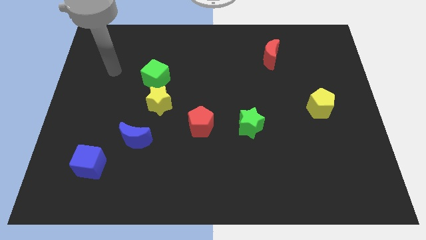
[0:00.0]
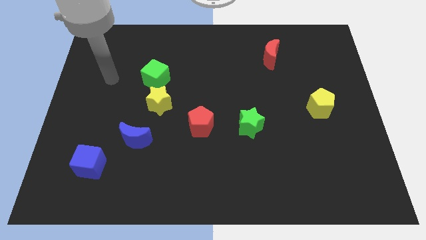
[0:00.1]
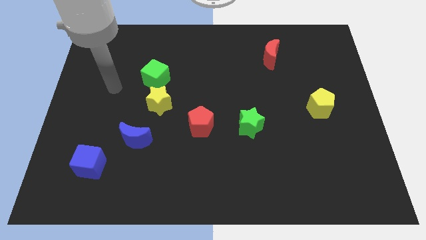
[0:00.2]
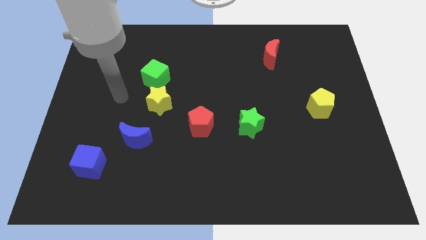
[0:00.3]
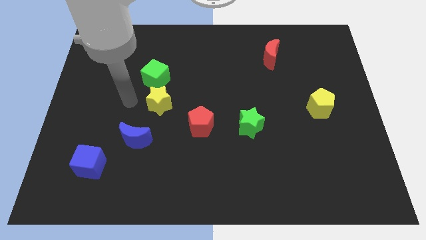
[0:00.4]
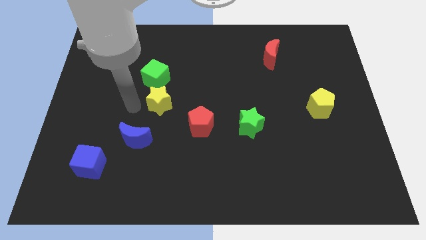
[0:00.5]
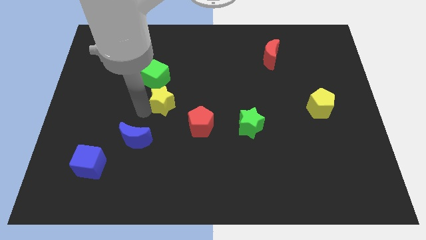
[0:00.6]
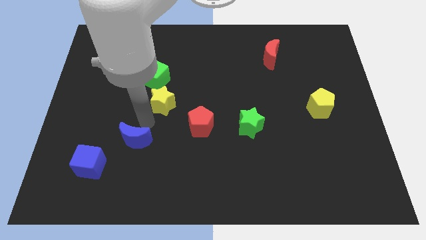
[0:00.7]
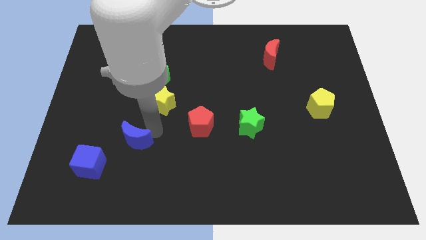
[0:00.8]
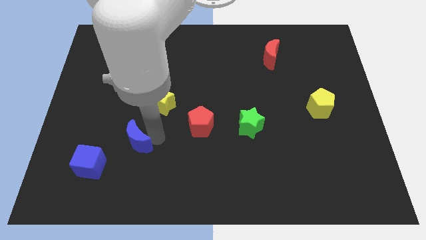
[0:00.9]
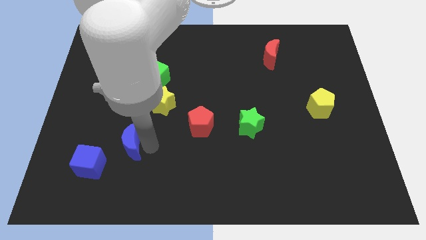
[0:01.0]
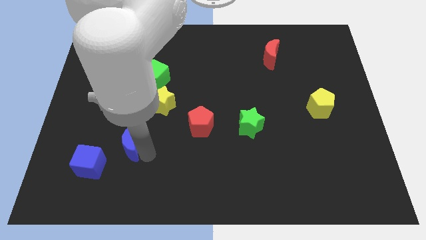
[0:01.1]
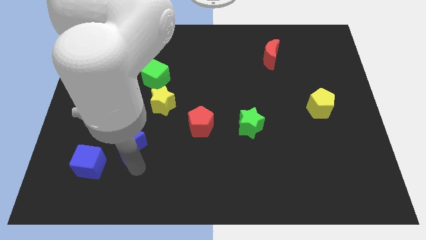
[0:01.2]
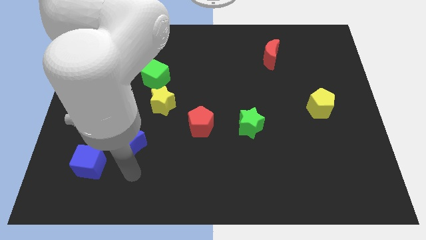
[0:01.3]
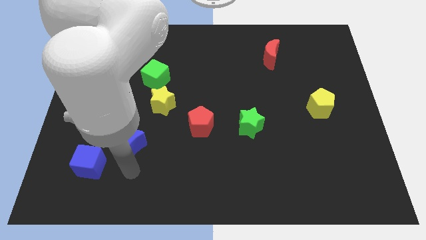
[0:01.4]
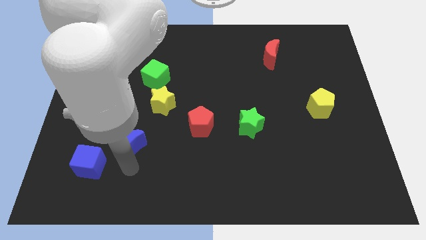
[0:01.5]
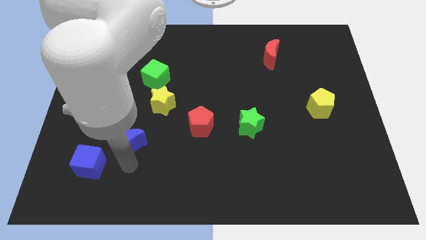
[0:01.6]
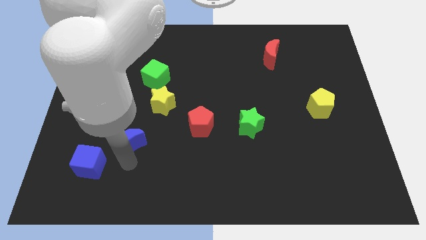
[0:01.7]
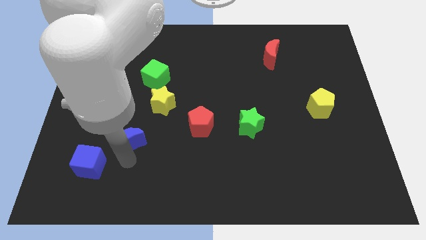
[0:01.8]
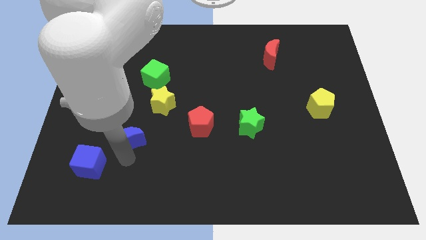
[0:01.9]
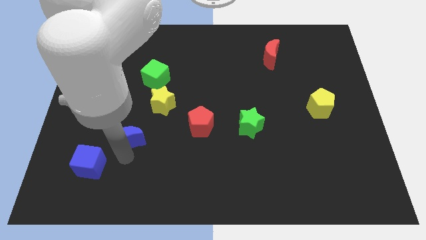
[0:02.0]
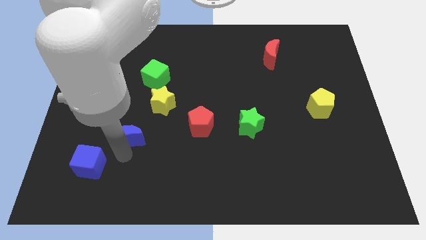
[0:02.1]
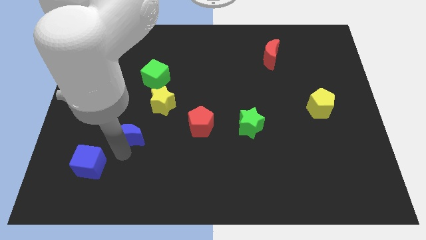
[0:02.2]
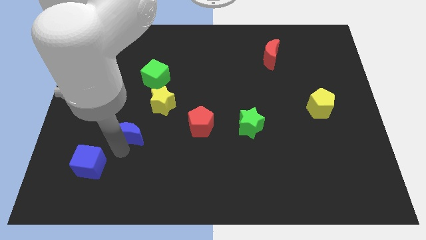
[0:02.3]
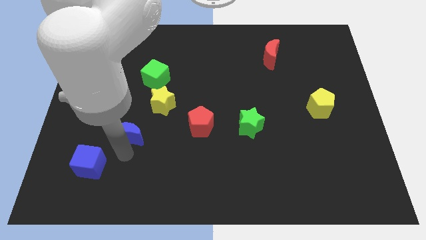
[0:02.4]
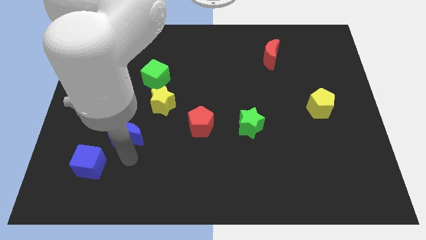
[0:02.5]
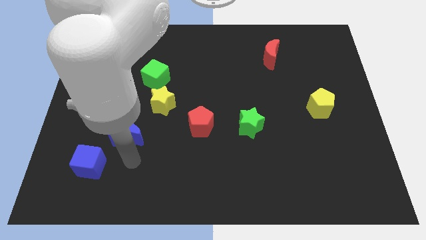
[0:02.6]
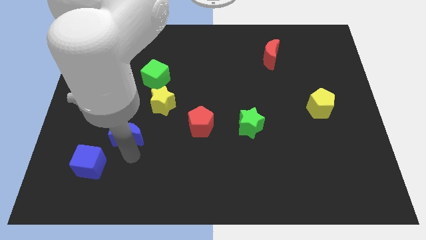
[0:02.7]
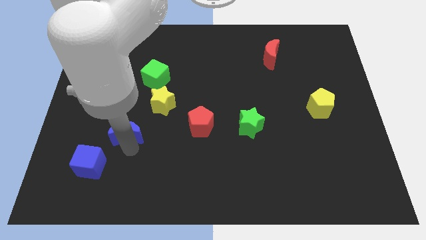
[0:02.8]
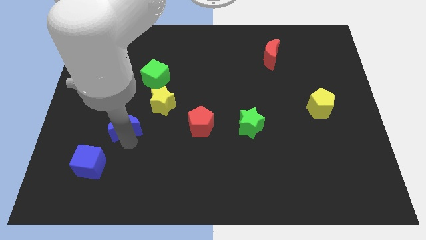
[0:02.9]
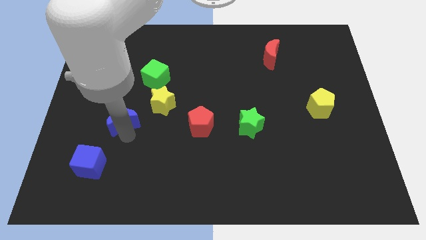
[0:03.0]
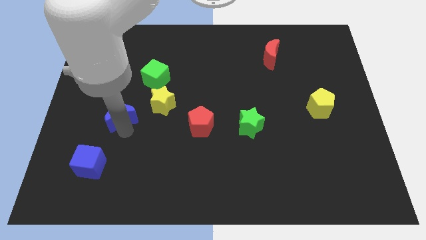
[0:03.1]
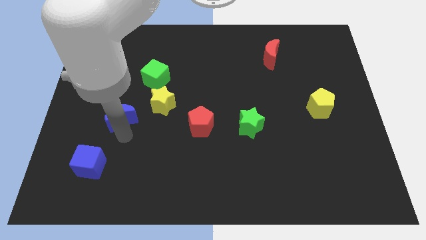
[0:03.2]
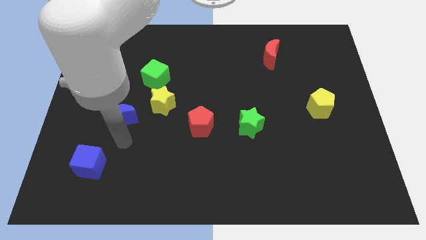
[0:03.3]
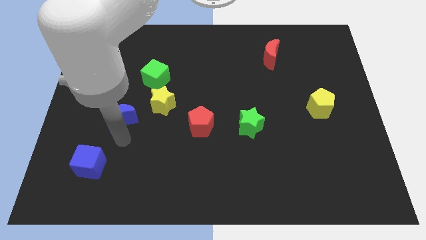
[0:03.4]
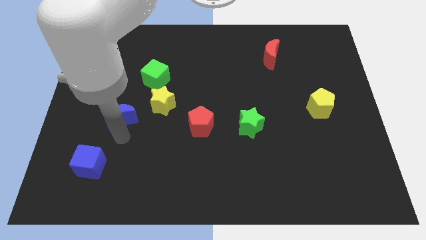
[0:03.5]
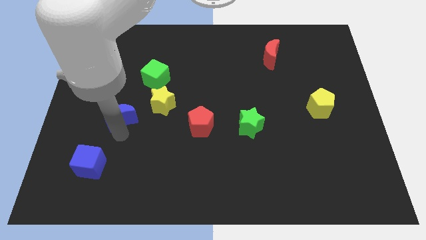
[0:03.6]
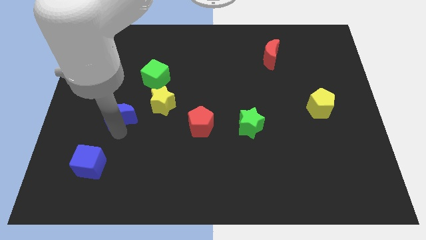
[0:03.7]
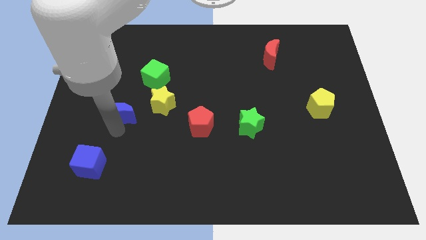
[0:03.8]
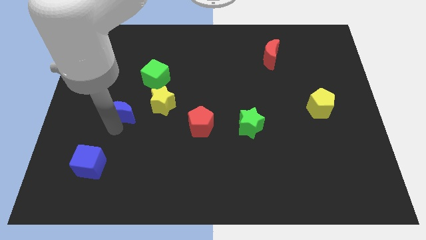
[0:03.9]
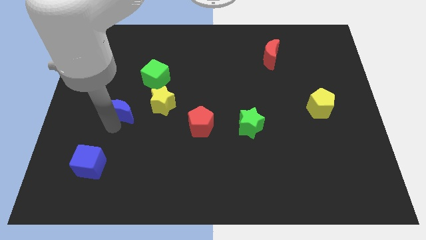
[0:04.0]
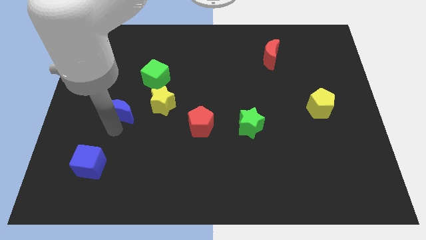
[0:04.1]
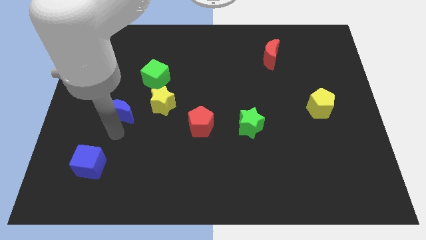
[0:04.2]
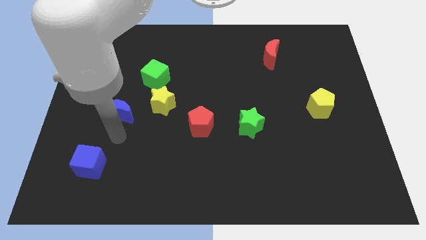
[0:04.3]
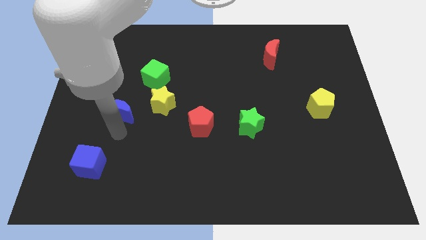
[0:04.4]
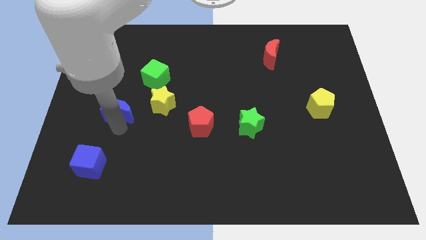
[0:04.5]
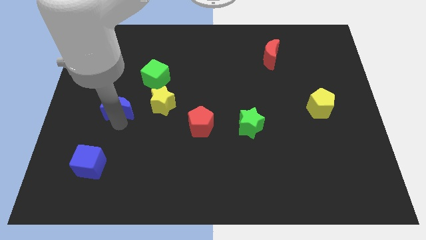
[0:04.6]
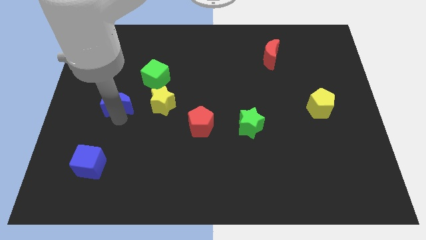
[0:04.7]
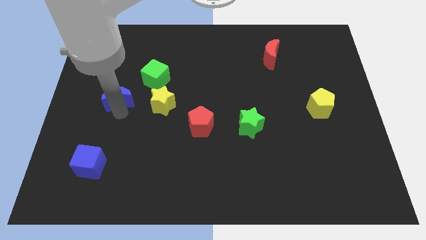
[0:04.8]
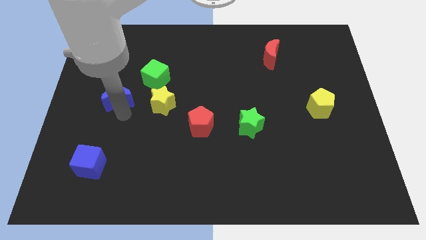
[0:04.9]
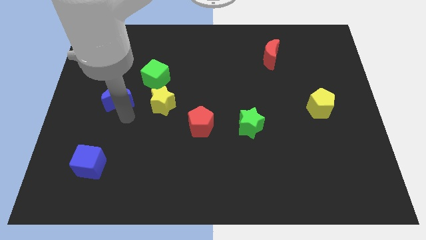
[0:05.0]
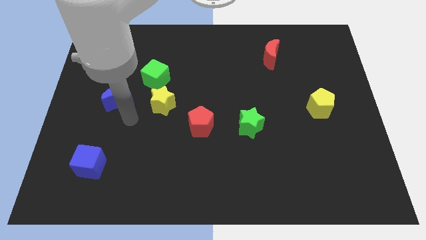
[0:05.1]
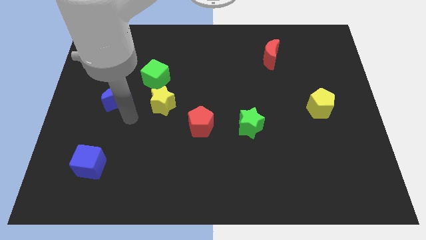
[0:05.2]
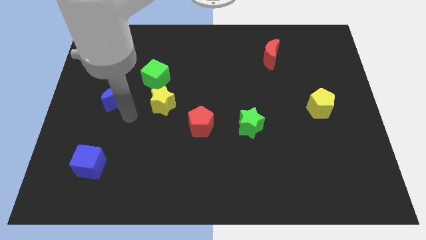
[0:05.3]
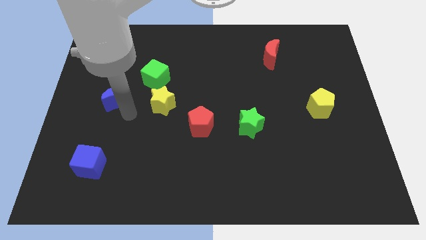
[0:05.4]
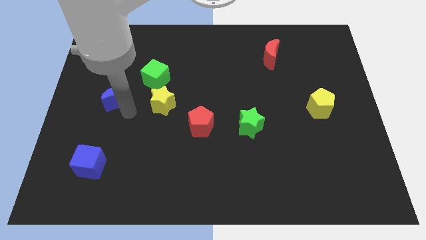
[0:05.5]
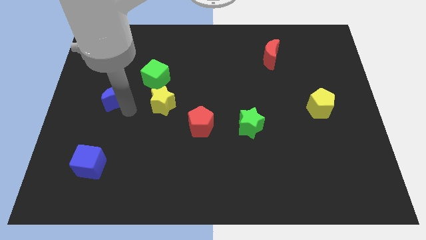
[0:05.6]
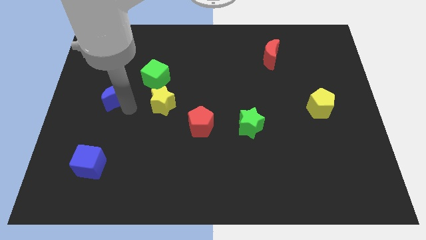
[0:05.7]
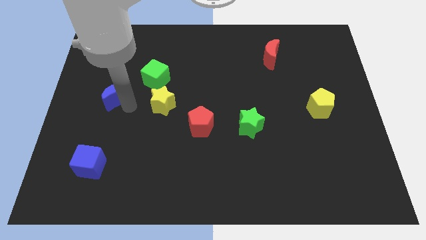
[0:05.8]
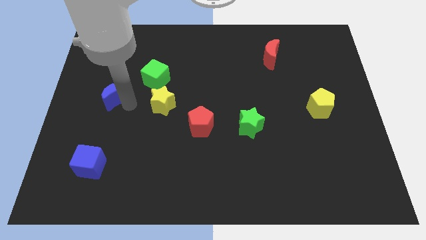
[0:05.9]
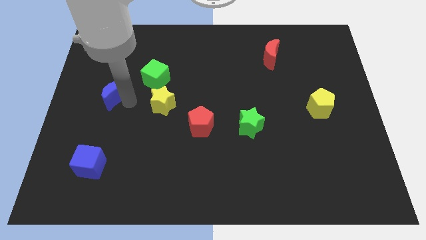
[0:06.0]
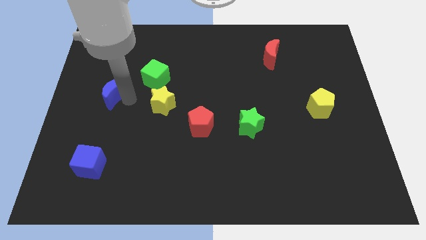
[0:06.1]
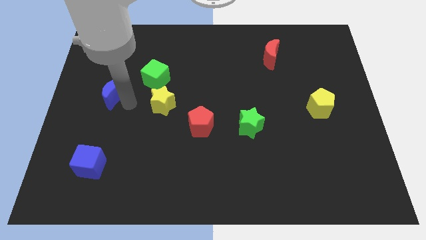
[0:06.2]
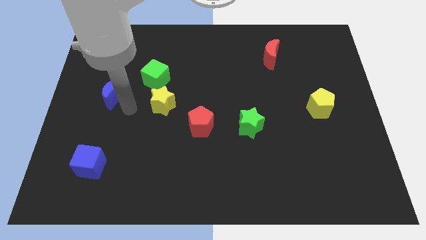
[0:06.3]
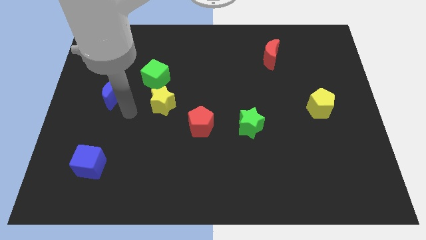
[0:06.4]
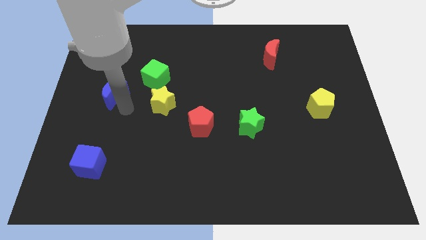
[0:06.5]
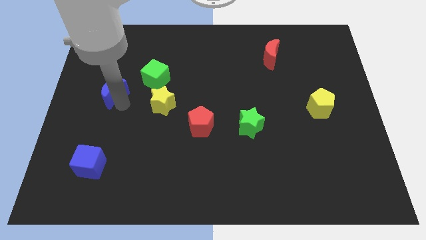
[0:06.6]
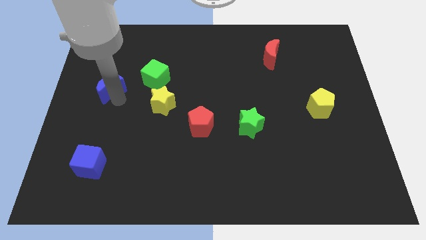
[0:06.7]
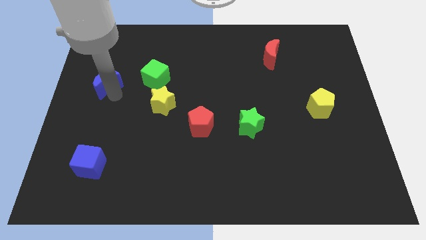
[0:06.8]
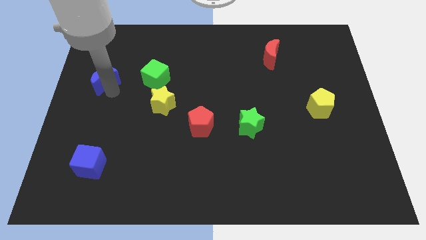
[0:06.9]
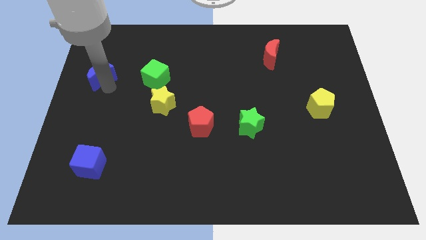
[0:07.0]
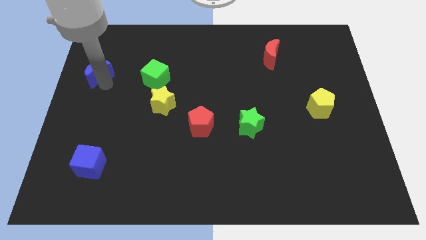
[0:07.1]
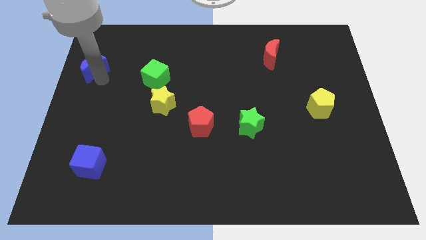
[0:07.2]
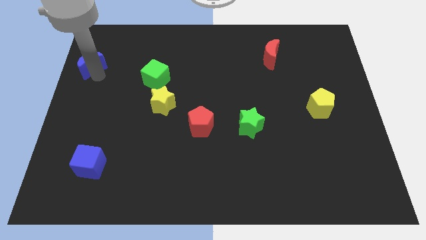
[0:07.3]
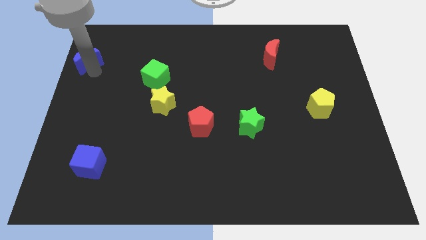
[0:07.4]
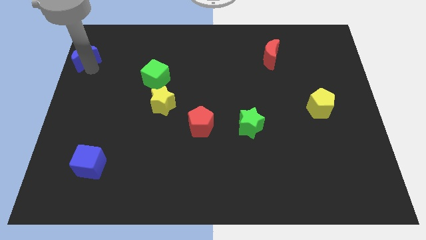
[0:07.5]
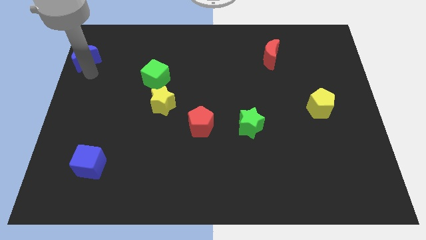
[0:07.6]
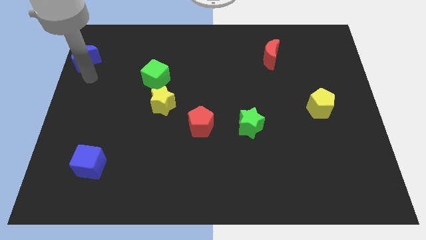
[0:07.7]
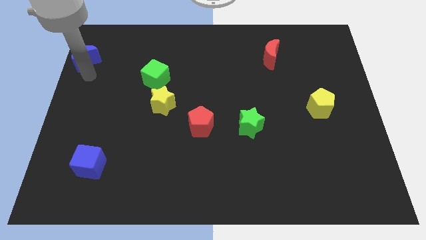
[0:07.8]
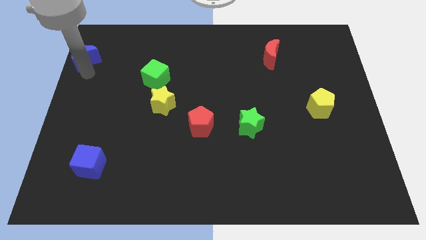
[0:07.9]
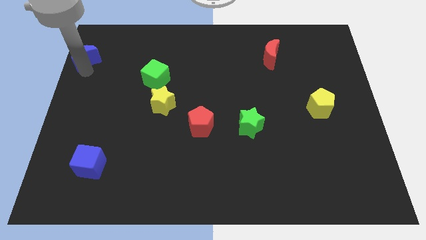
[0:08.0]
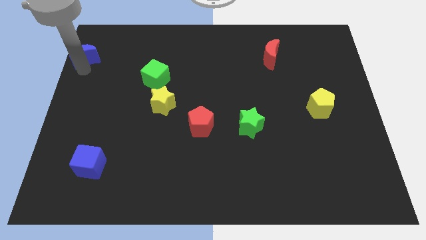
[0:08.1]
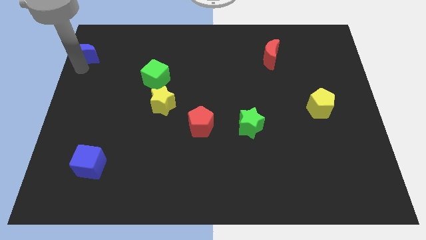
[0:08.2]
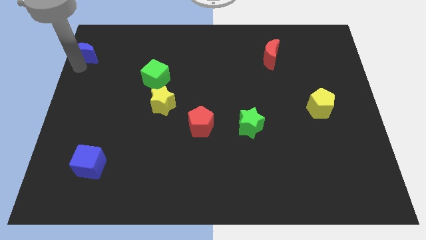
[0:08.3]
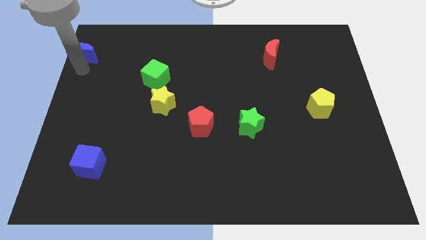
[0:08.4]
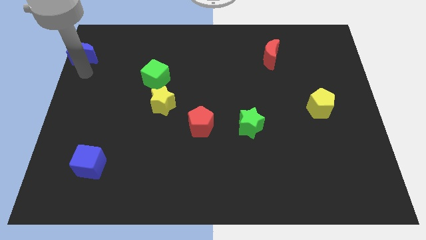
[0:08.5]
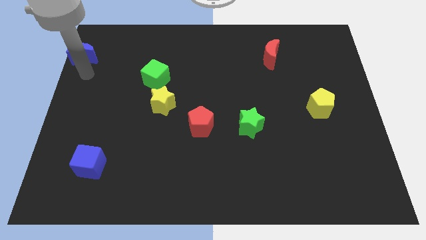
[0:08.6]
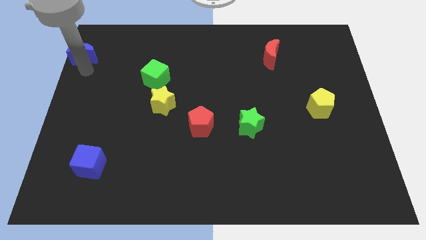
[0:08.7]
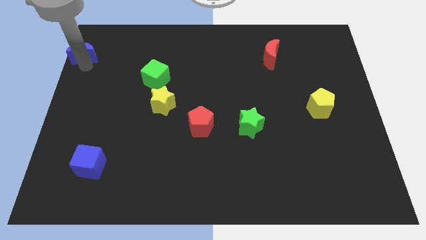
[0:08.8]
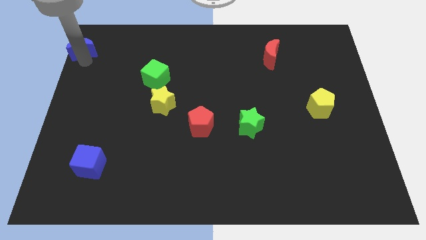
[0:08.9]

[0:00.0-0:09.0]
push the blue moon to the top left corner
